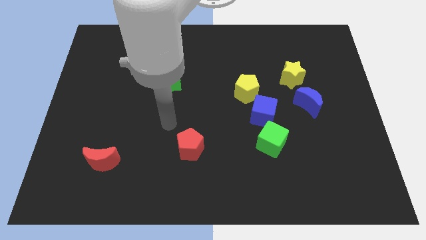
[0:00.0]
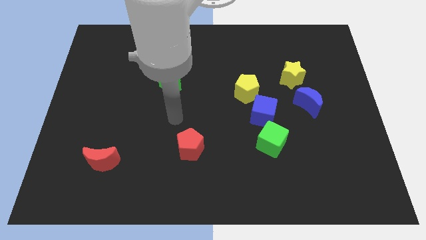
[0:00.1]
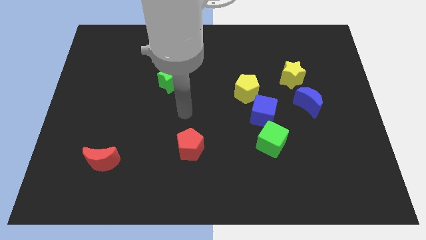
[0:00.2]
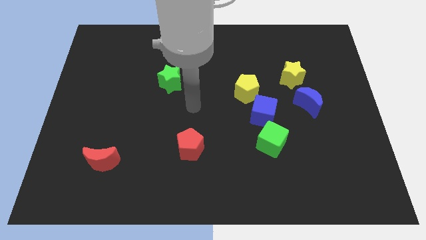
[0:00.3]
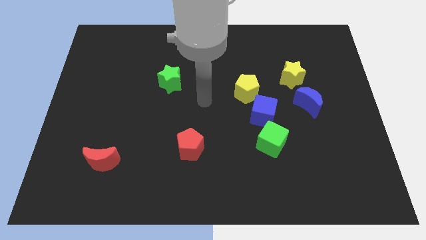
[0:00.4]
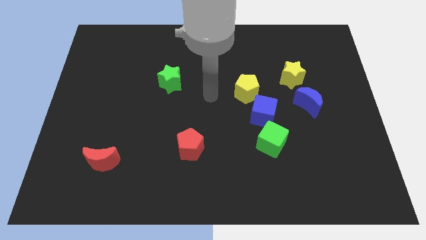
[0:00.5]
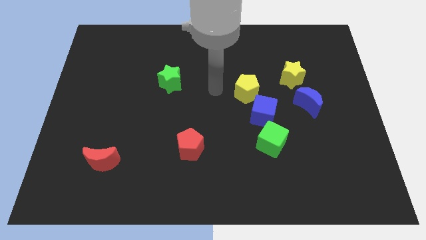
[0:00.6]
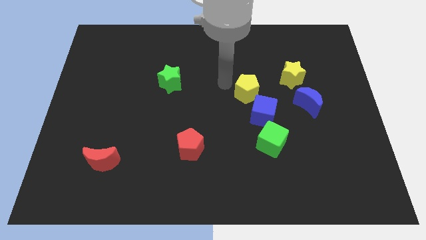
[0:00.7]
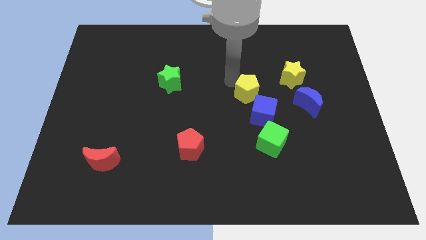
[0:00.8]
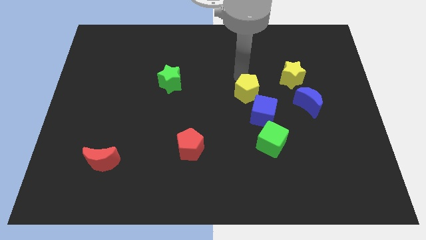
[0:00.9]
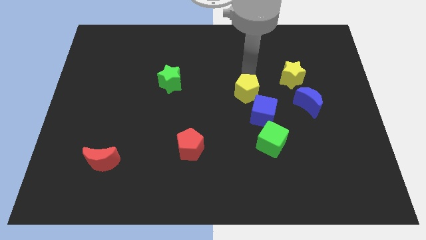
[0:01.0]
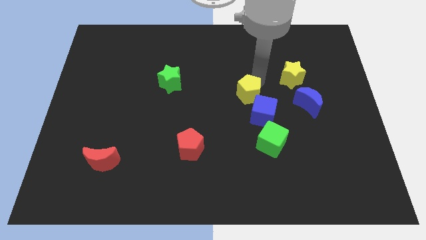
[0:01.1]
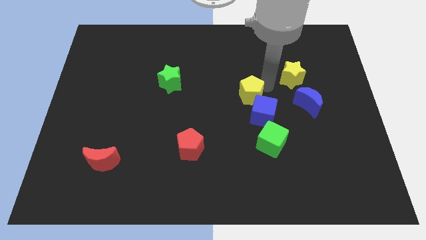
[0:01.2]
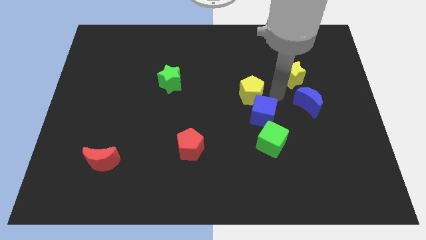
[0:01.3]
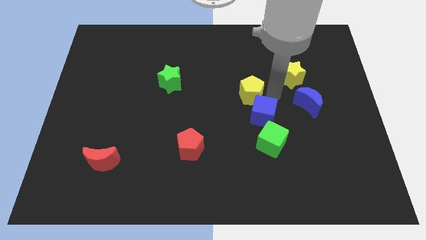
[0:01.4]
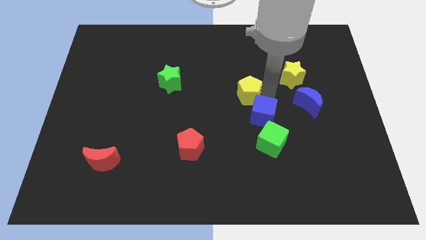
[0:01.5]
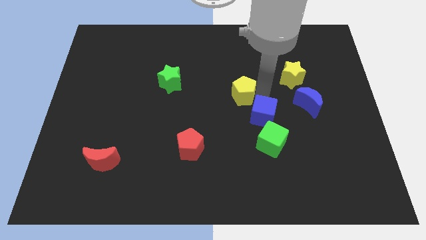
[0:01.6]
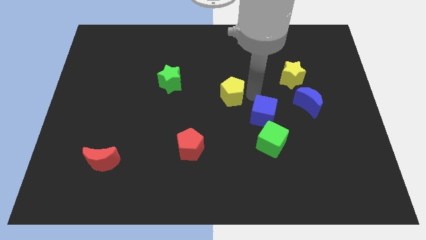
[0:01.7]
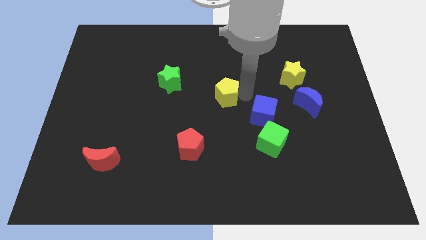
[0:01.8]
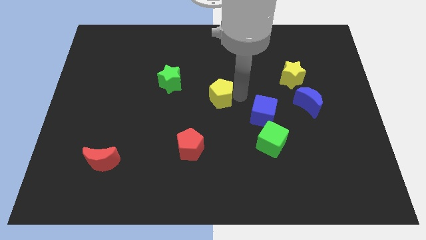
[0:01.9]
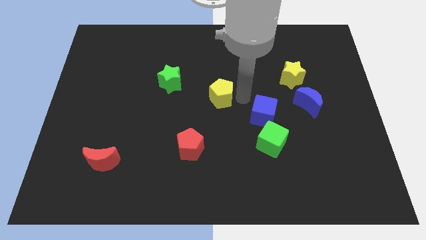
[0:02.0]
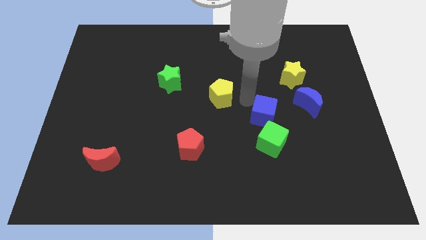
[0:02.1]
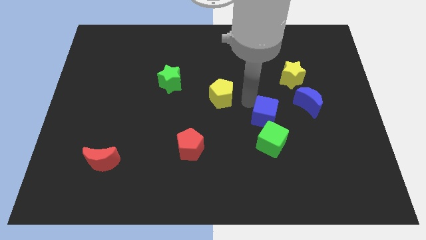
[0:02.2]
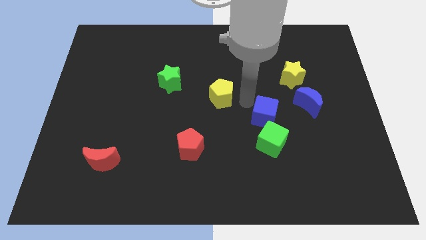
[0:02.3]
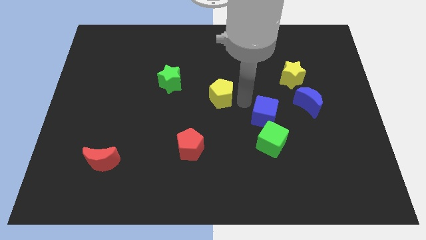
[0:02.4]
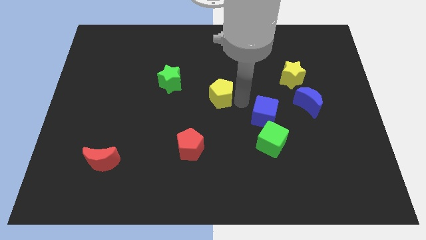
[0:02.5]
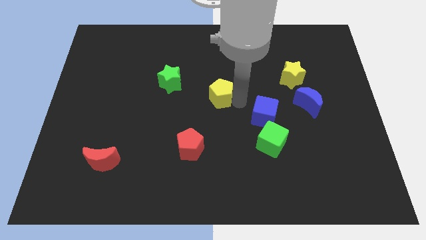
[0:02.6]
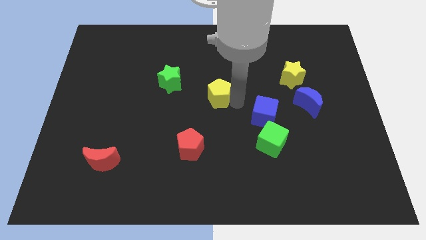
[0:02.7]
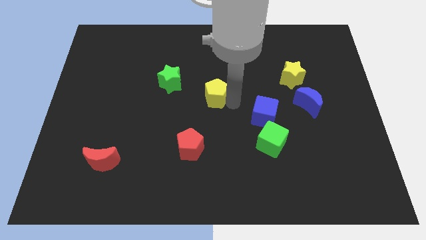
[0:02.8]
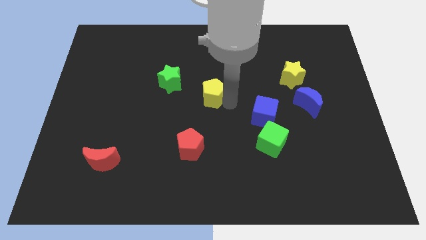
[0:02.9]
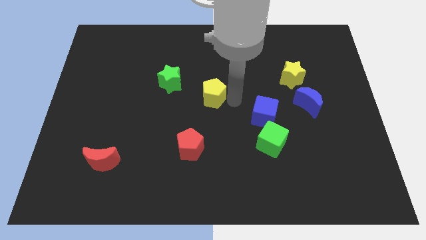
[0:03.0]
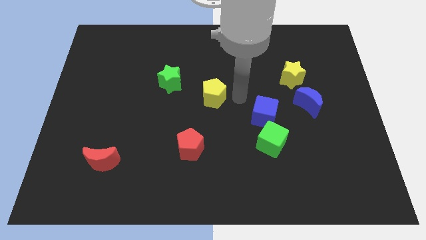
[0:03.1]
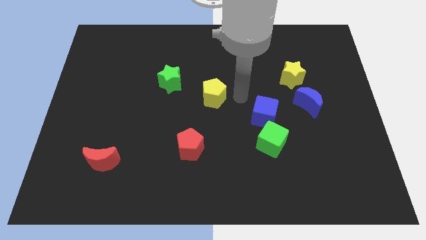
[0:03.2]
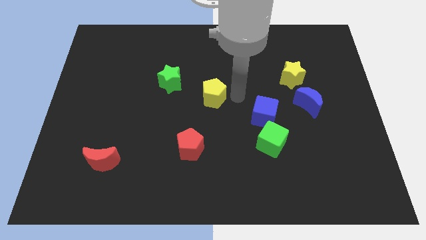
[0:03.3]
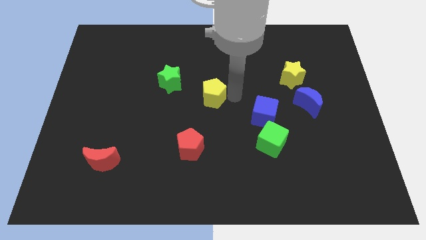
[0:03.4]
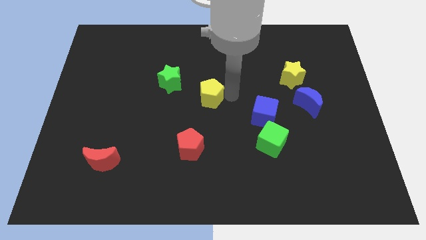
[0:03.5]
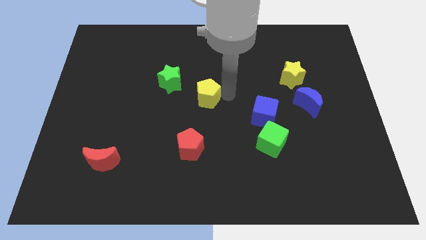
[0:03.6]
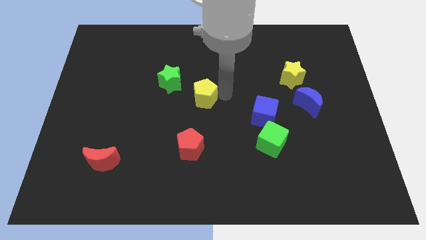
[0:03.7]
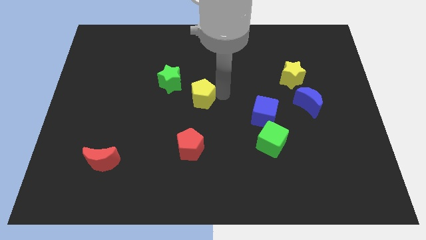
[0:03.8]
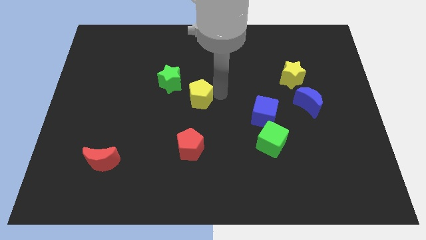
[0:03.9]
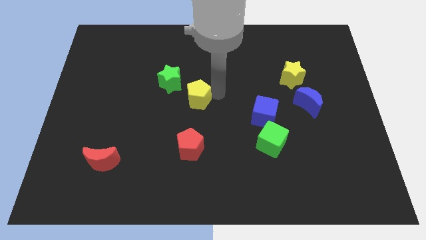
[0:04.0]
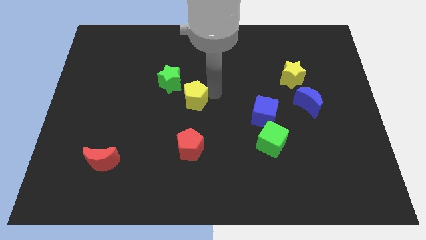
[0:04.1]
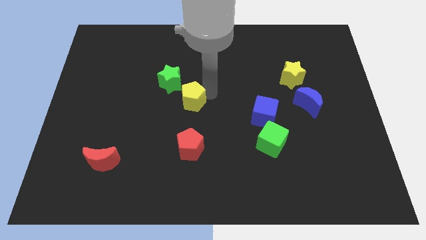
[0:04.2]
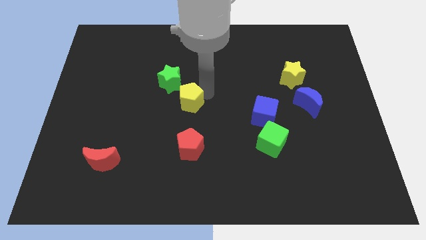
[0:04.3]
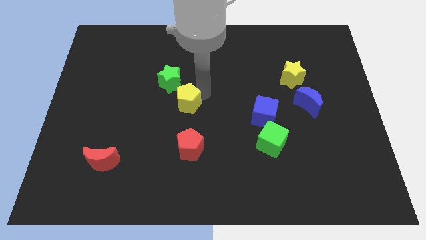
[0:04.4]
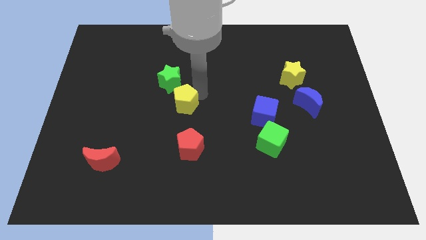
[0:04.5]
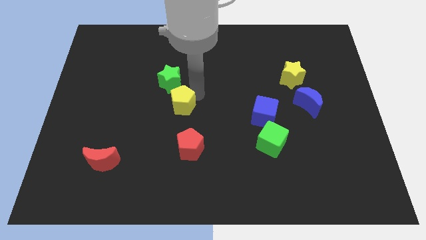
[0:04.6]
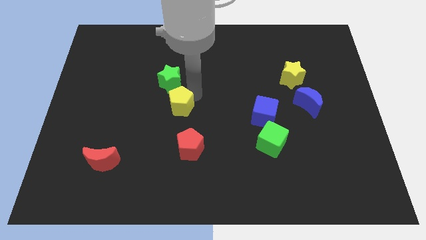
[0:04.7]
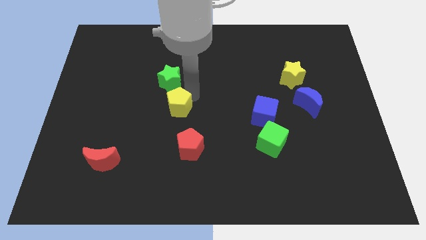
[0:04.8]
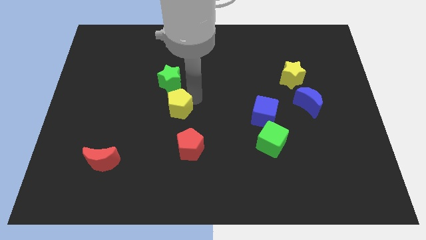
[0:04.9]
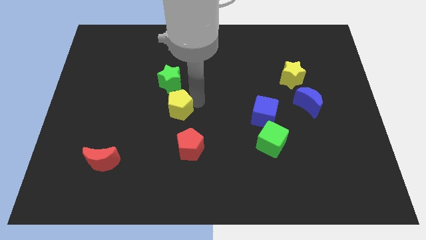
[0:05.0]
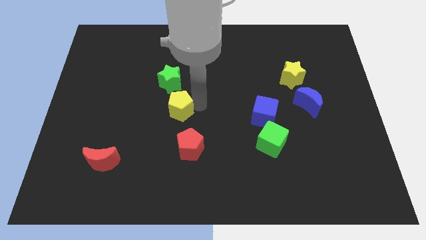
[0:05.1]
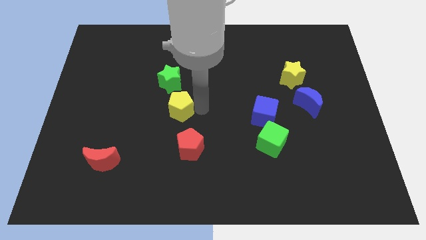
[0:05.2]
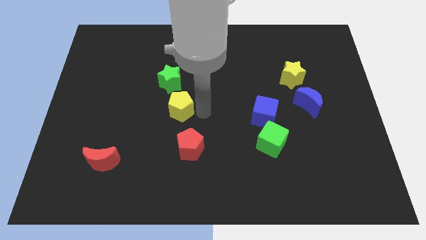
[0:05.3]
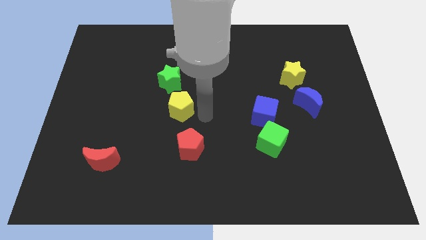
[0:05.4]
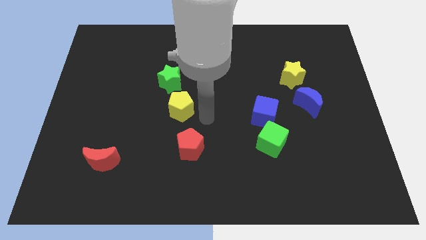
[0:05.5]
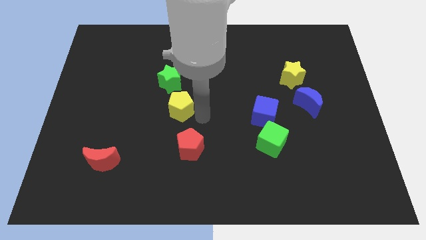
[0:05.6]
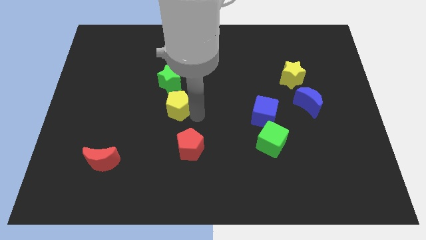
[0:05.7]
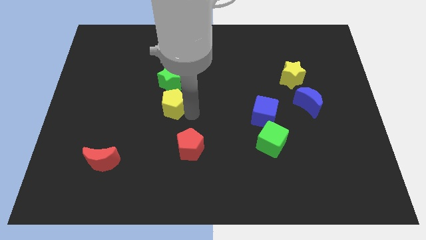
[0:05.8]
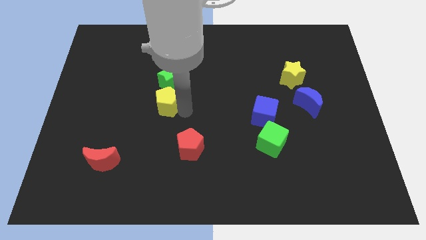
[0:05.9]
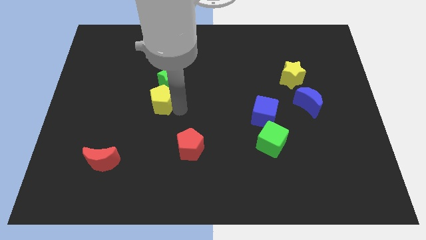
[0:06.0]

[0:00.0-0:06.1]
push the yellow pentagon to the left

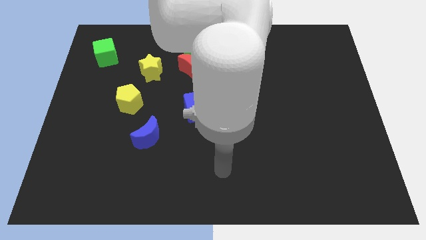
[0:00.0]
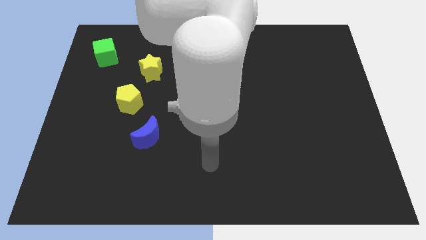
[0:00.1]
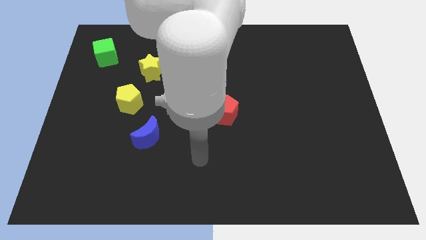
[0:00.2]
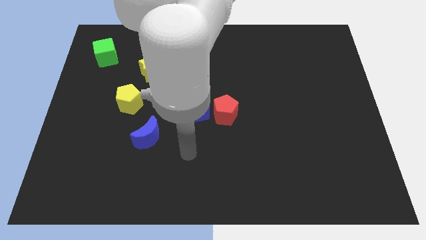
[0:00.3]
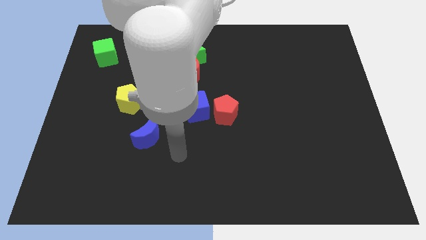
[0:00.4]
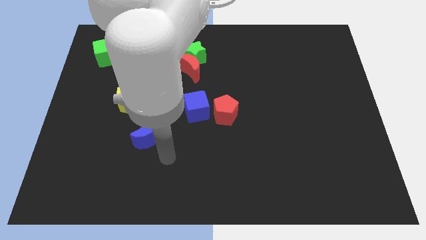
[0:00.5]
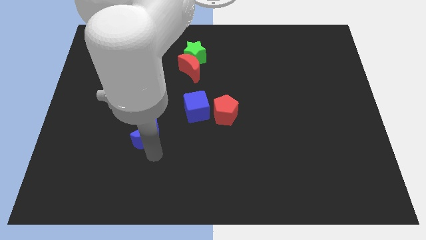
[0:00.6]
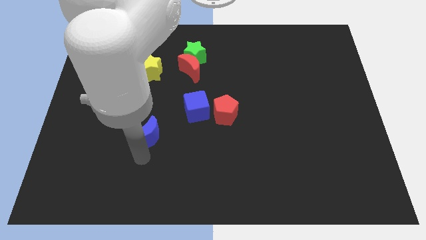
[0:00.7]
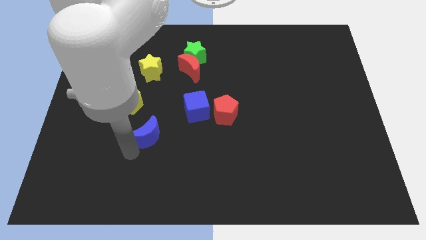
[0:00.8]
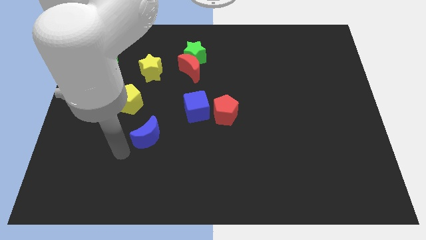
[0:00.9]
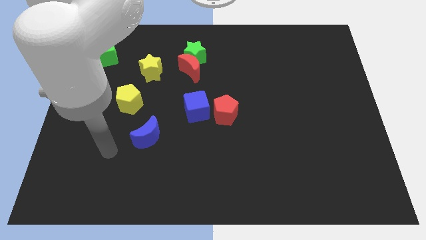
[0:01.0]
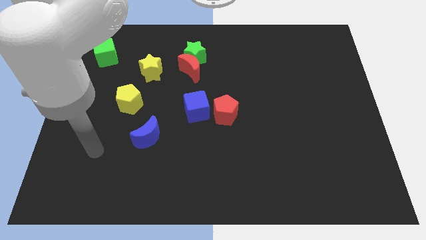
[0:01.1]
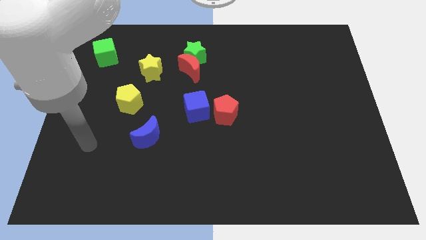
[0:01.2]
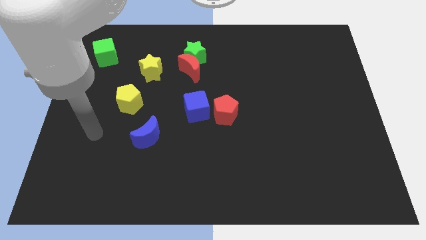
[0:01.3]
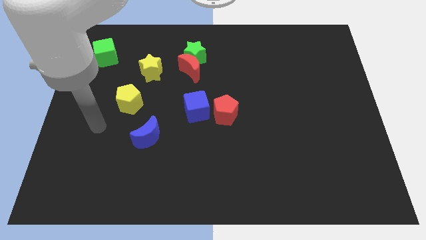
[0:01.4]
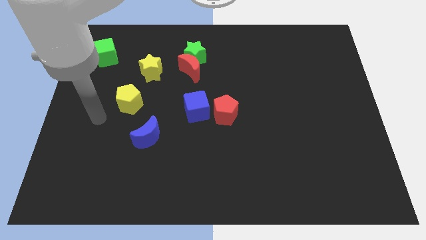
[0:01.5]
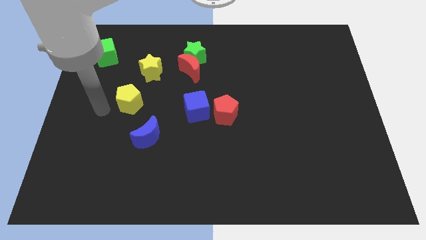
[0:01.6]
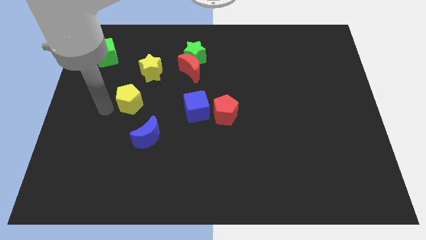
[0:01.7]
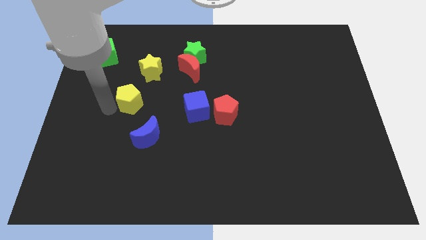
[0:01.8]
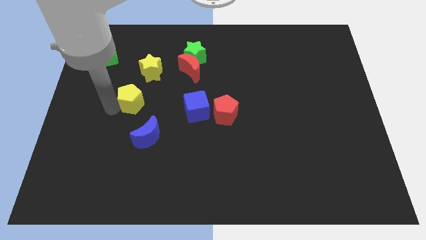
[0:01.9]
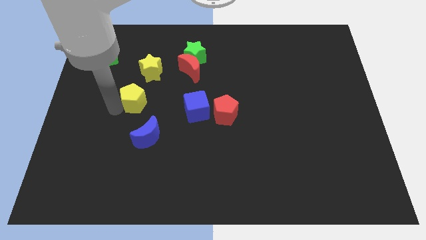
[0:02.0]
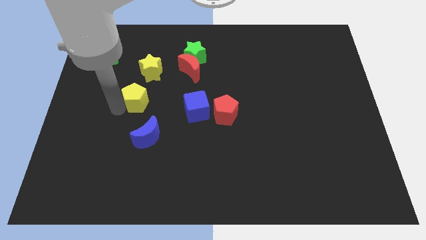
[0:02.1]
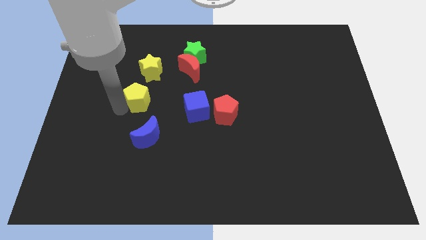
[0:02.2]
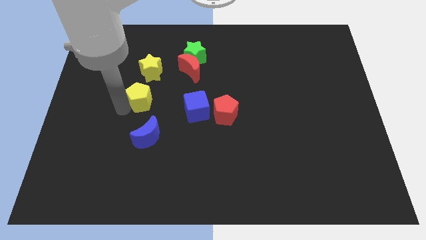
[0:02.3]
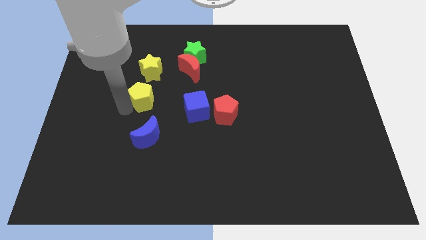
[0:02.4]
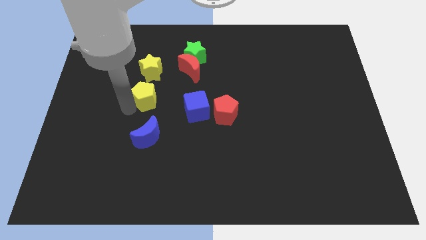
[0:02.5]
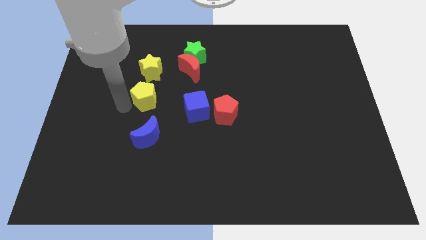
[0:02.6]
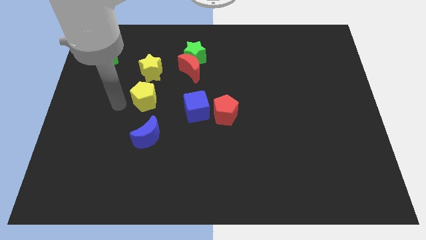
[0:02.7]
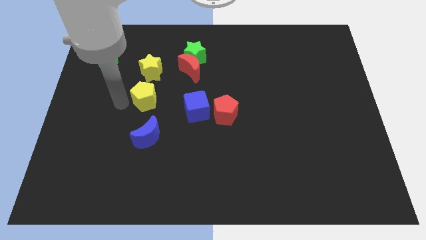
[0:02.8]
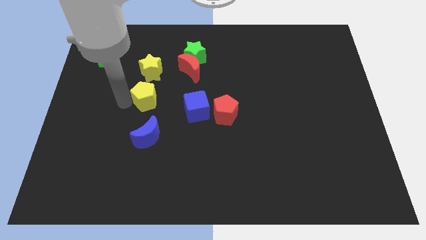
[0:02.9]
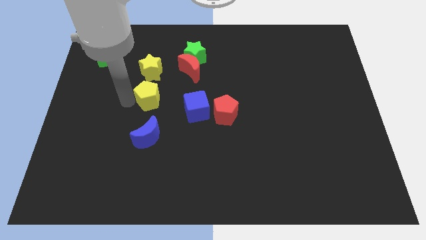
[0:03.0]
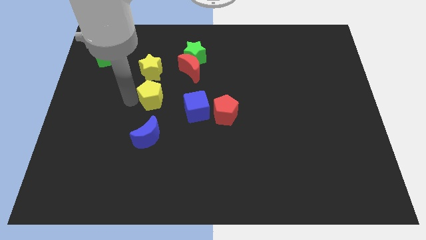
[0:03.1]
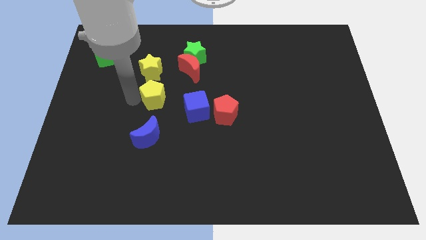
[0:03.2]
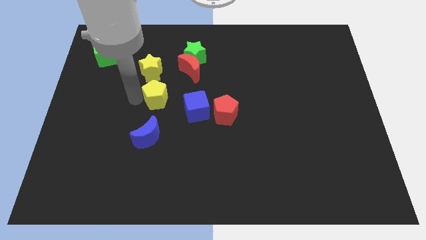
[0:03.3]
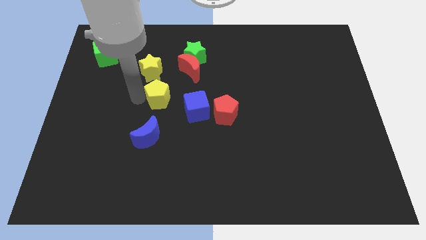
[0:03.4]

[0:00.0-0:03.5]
move the yellow pentagon right slightly
